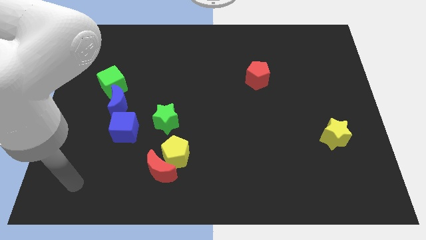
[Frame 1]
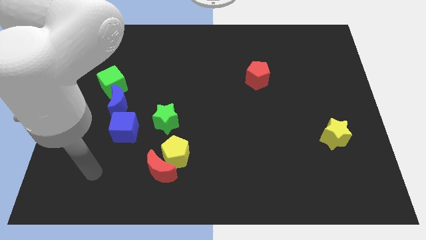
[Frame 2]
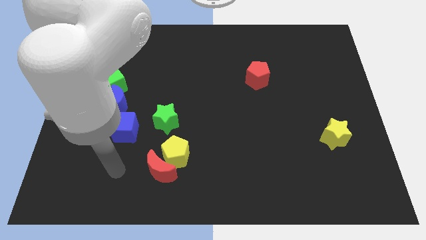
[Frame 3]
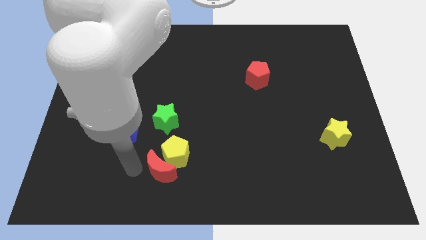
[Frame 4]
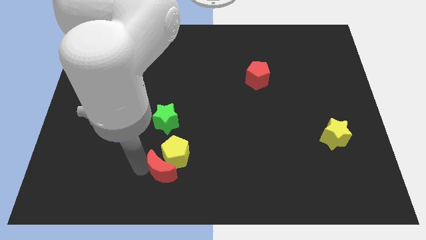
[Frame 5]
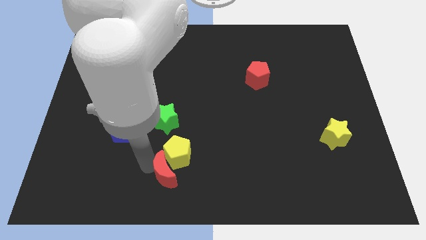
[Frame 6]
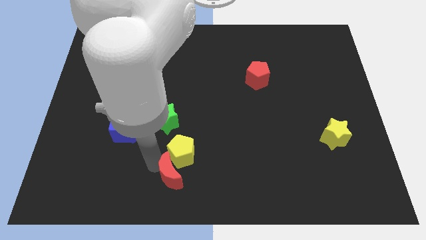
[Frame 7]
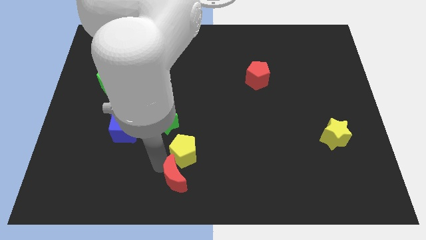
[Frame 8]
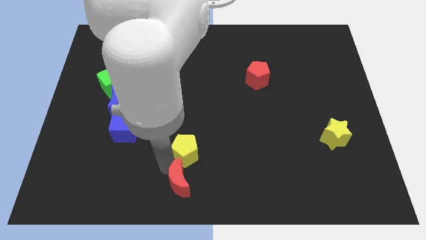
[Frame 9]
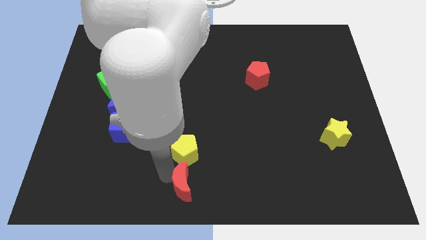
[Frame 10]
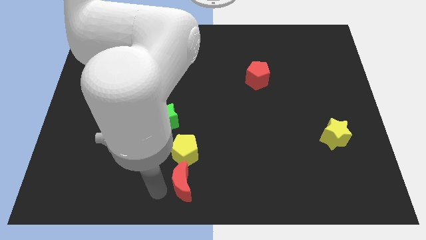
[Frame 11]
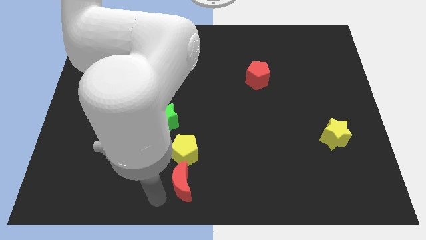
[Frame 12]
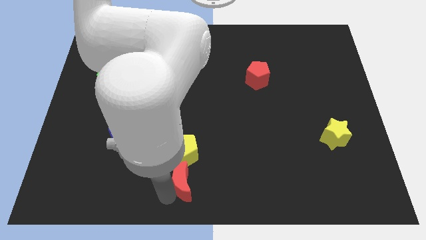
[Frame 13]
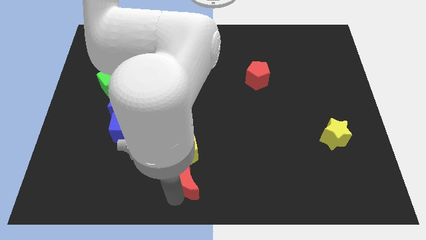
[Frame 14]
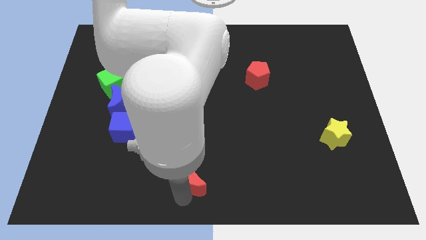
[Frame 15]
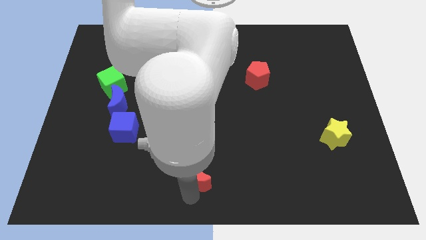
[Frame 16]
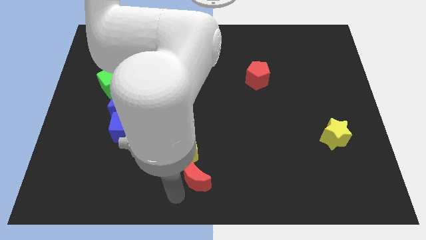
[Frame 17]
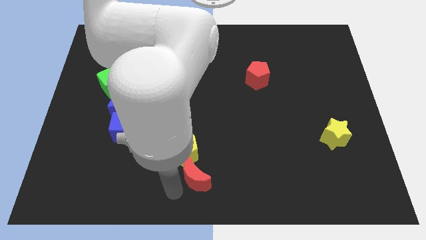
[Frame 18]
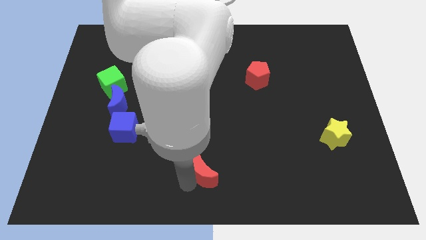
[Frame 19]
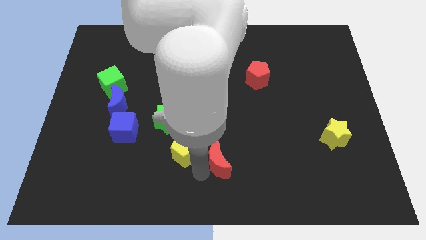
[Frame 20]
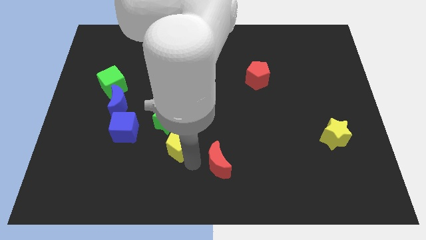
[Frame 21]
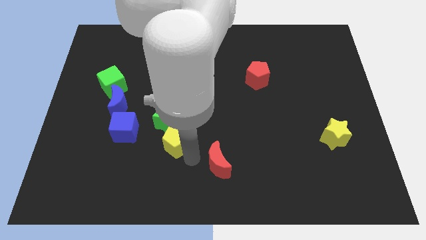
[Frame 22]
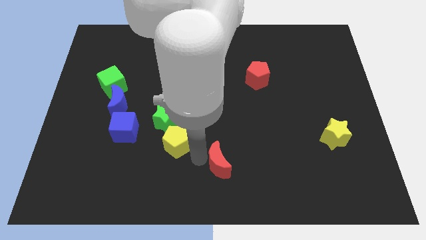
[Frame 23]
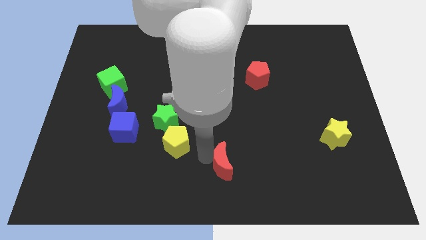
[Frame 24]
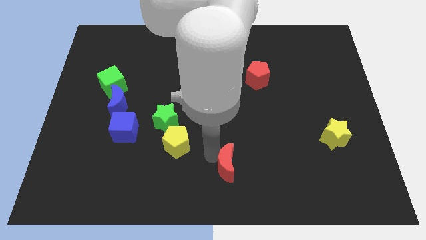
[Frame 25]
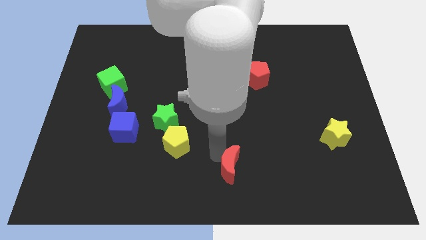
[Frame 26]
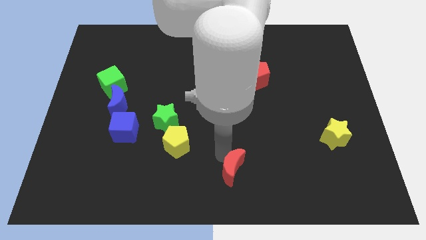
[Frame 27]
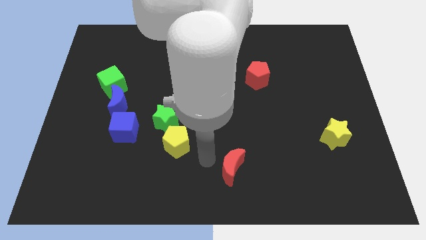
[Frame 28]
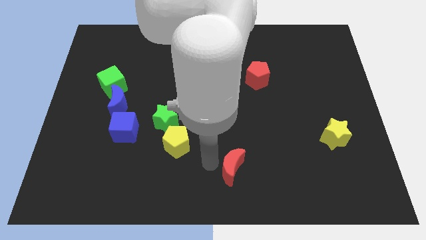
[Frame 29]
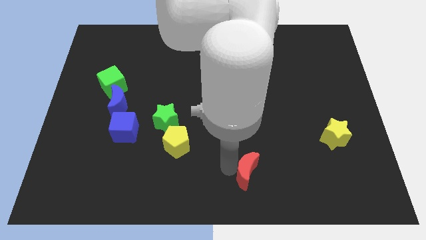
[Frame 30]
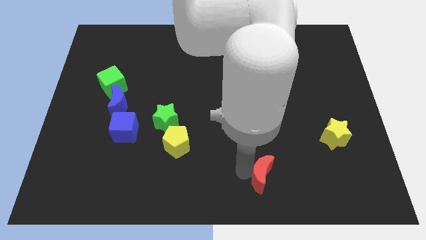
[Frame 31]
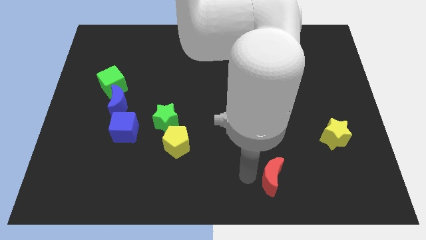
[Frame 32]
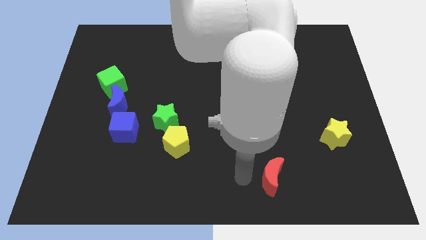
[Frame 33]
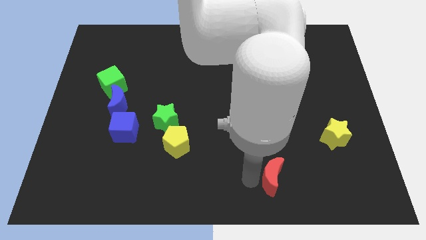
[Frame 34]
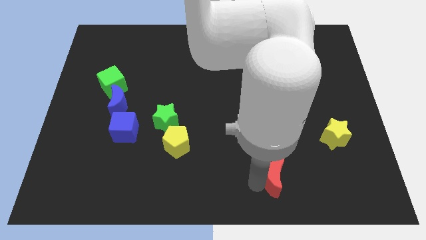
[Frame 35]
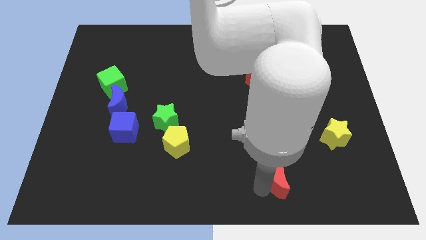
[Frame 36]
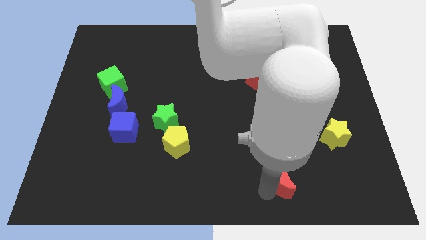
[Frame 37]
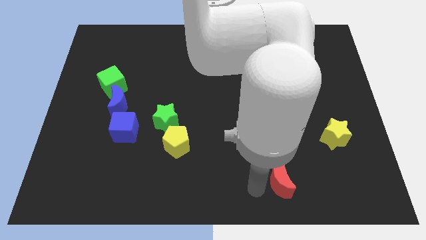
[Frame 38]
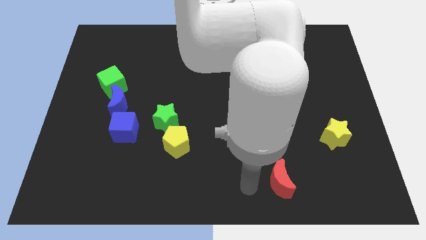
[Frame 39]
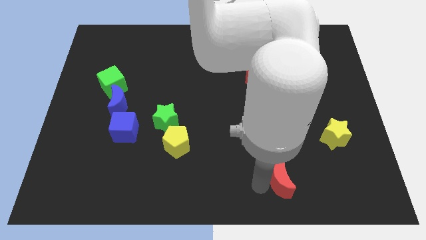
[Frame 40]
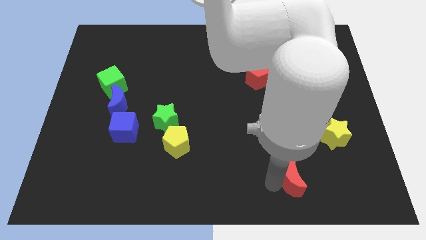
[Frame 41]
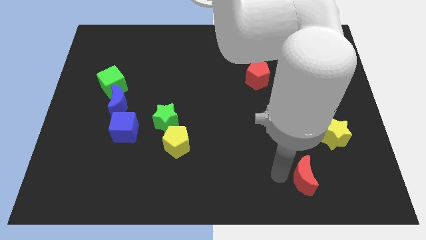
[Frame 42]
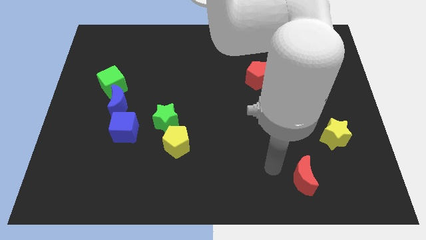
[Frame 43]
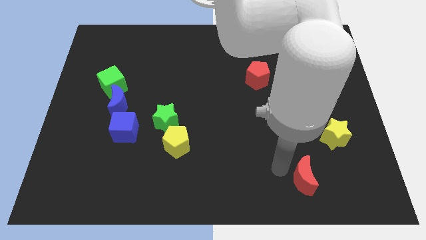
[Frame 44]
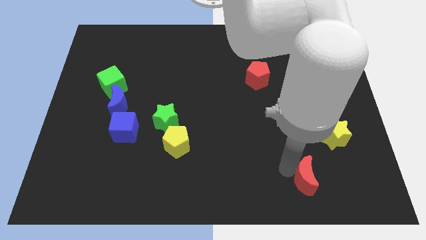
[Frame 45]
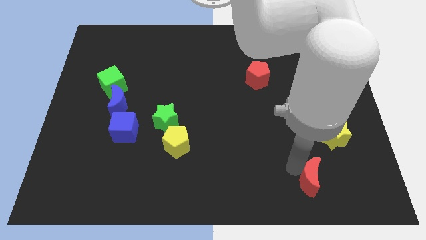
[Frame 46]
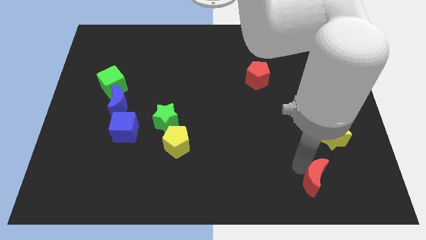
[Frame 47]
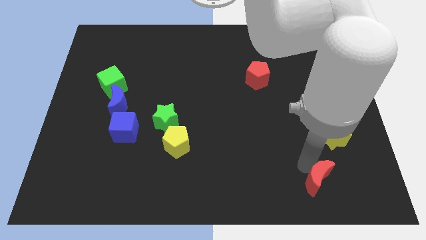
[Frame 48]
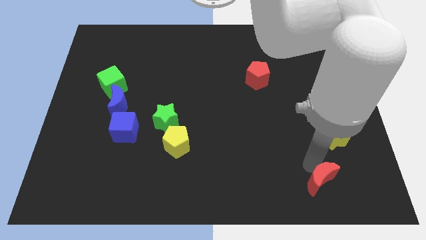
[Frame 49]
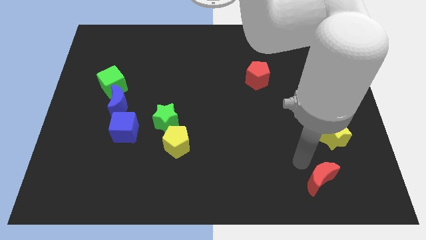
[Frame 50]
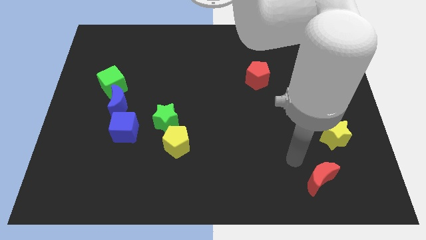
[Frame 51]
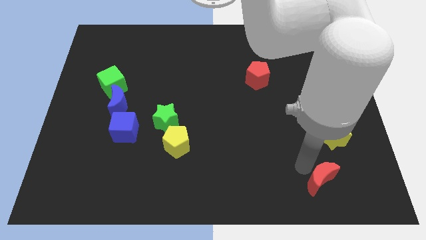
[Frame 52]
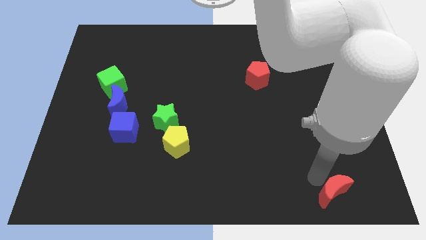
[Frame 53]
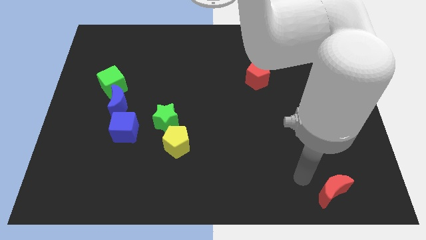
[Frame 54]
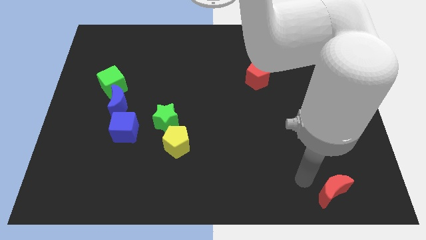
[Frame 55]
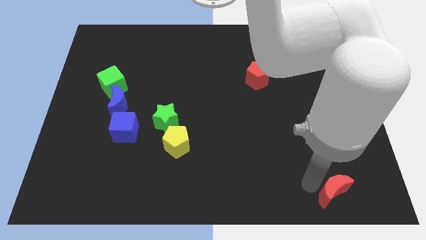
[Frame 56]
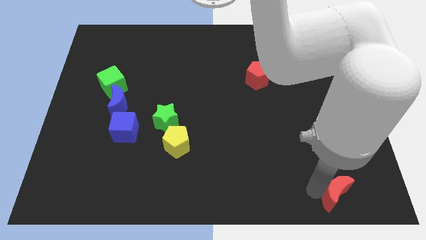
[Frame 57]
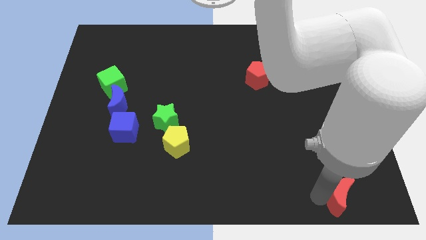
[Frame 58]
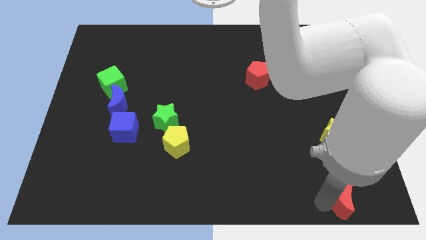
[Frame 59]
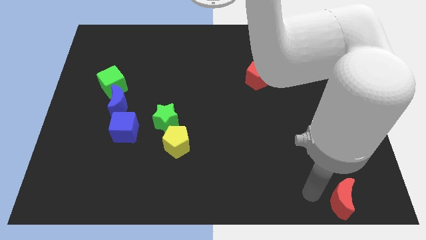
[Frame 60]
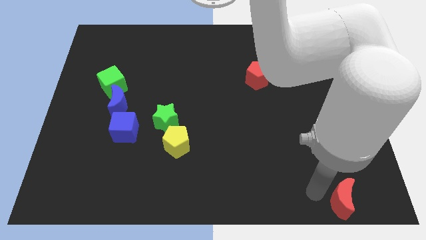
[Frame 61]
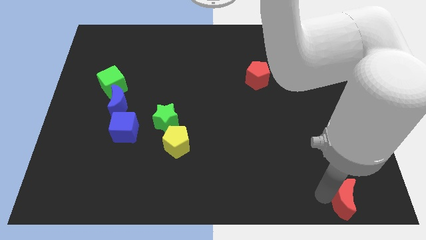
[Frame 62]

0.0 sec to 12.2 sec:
push the red moon to the lower right corner
